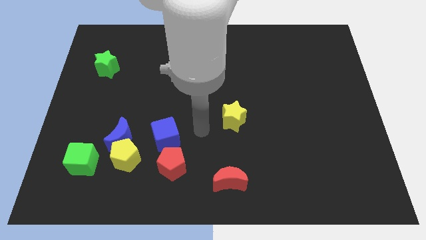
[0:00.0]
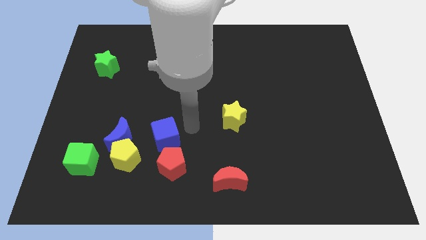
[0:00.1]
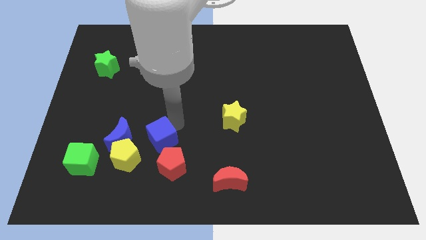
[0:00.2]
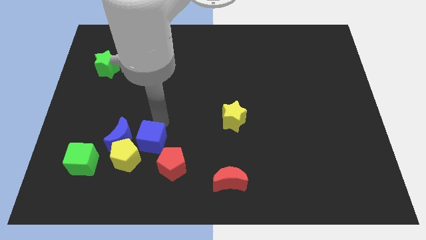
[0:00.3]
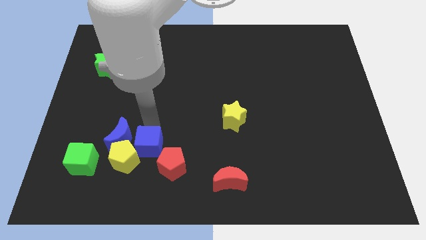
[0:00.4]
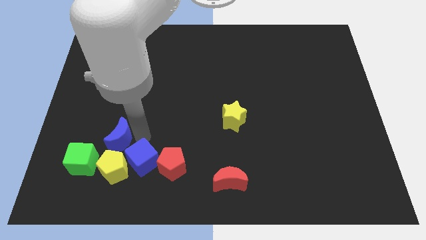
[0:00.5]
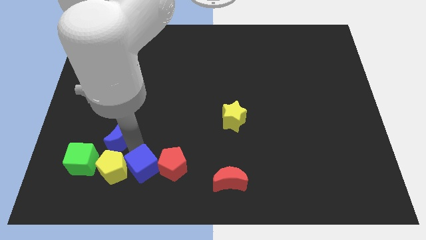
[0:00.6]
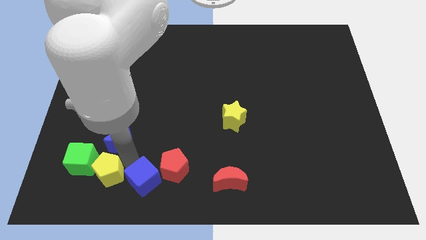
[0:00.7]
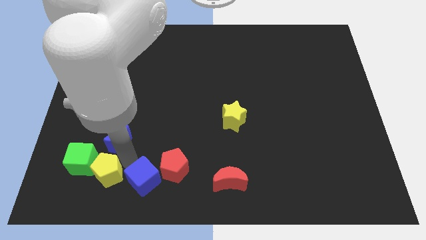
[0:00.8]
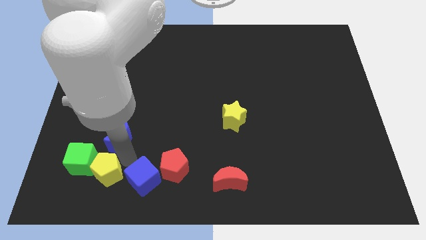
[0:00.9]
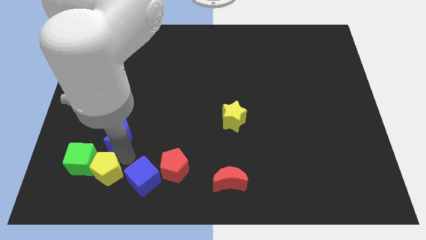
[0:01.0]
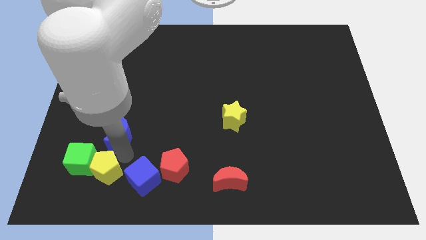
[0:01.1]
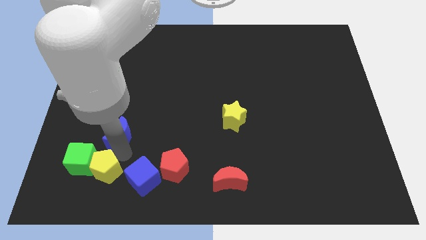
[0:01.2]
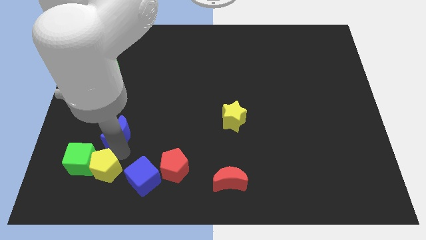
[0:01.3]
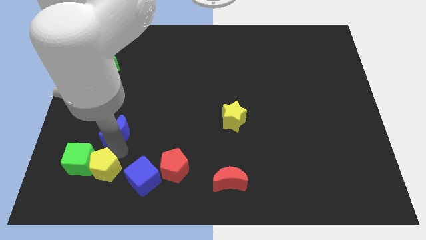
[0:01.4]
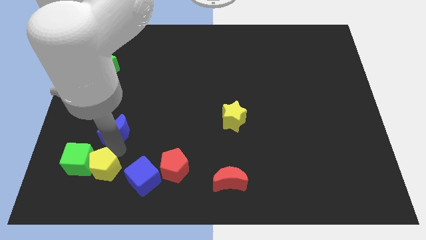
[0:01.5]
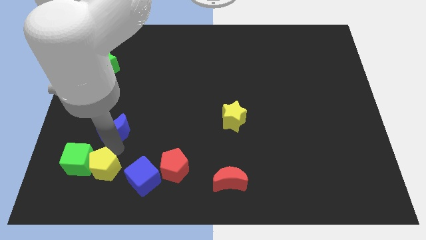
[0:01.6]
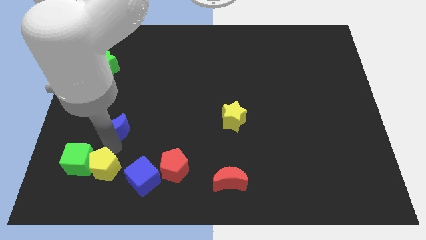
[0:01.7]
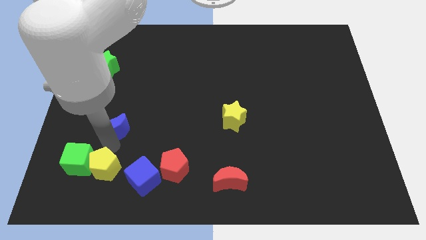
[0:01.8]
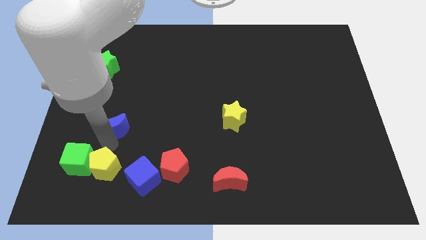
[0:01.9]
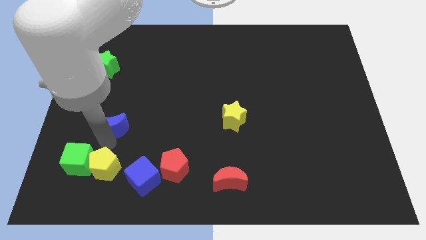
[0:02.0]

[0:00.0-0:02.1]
pull the blue moon apart from the clump

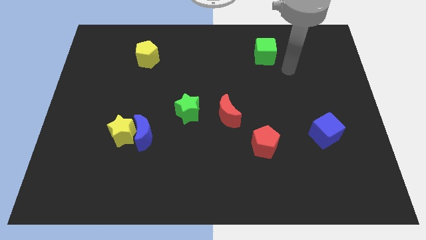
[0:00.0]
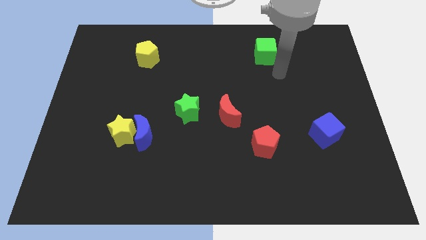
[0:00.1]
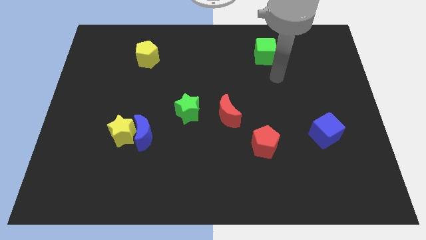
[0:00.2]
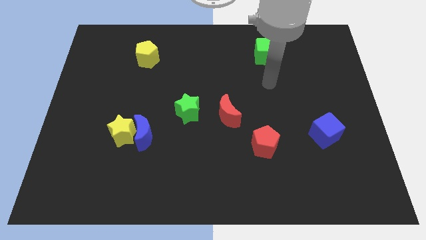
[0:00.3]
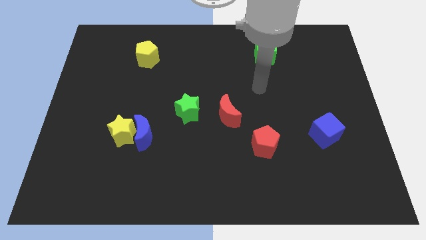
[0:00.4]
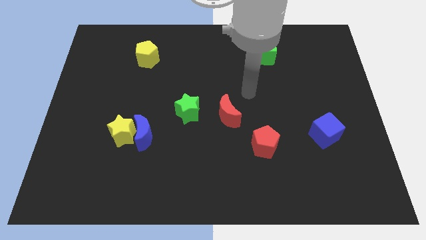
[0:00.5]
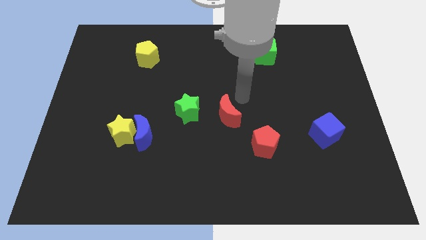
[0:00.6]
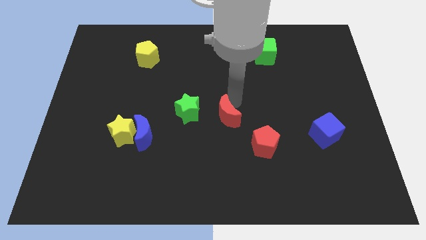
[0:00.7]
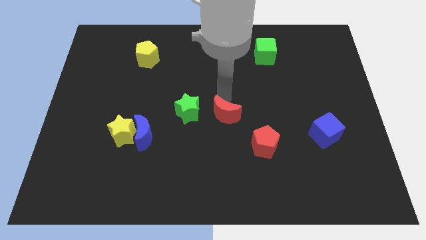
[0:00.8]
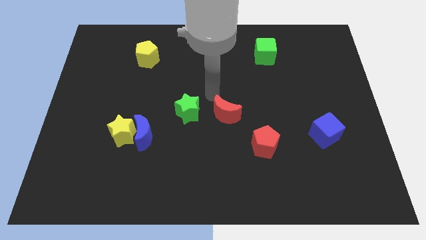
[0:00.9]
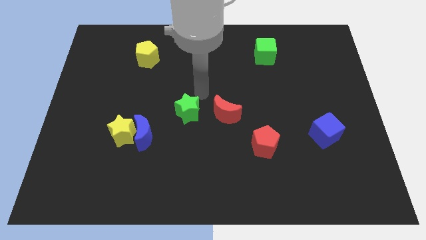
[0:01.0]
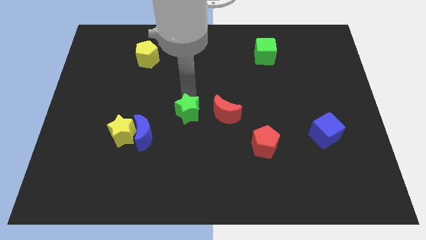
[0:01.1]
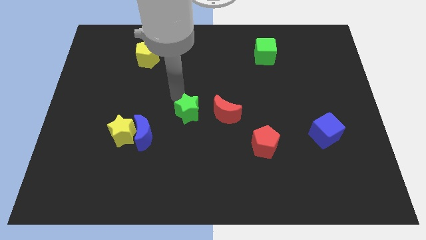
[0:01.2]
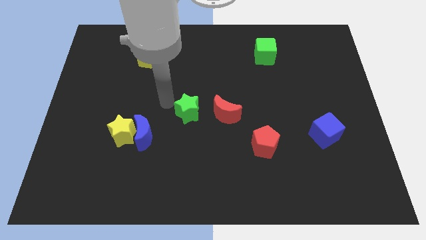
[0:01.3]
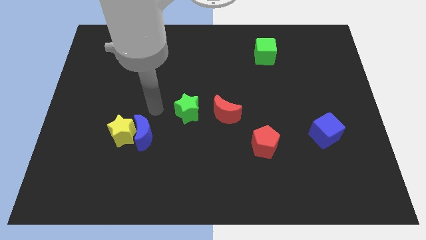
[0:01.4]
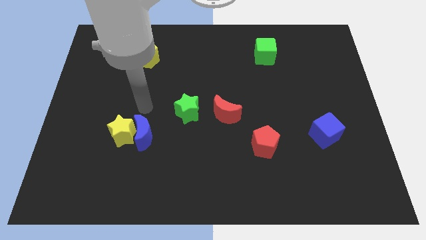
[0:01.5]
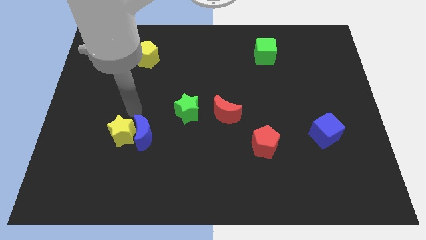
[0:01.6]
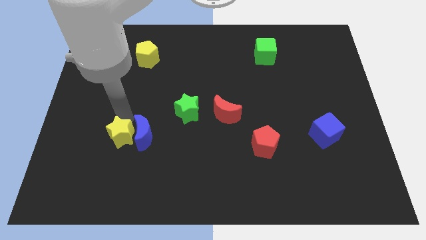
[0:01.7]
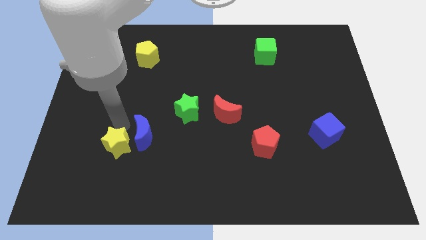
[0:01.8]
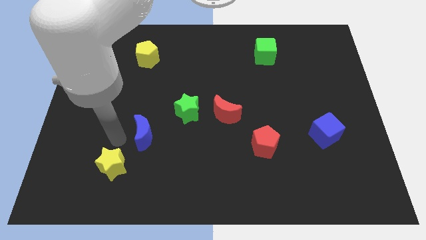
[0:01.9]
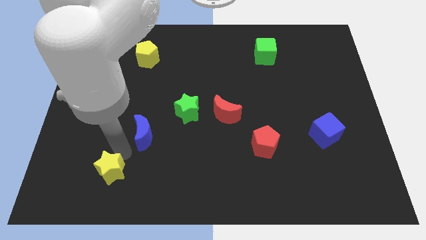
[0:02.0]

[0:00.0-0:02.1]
move the blue moon away from the yellow star

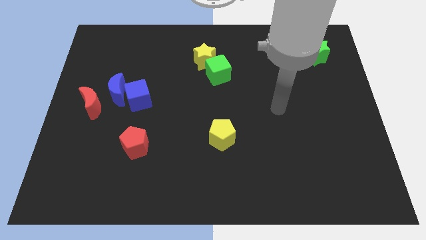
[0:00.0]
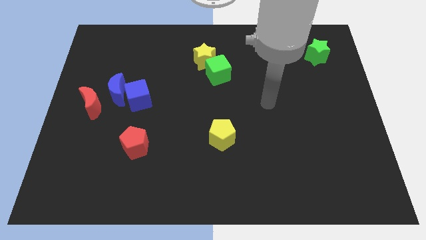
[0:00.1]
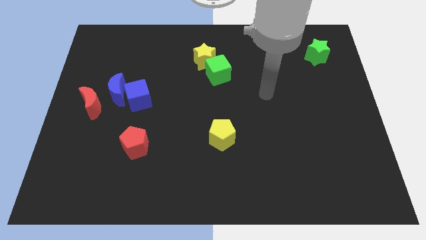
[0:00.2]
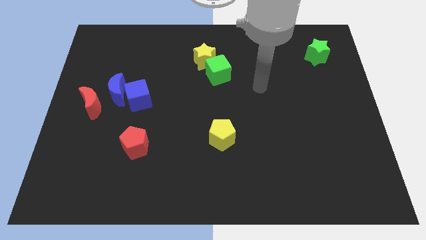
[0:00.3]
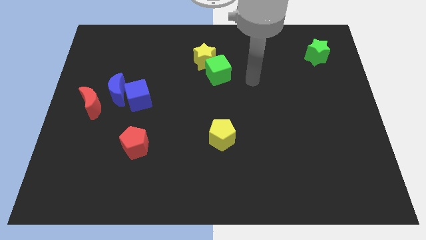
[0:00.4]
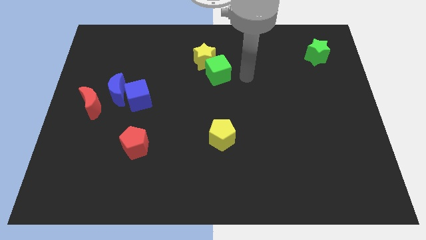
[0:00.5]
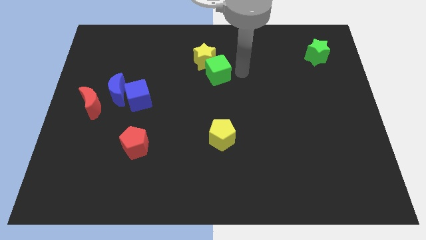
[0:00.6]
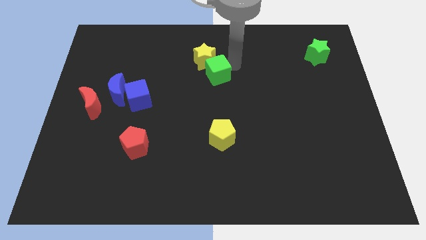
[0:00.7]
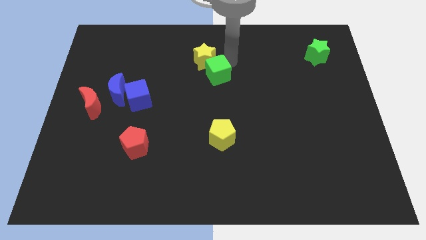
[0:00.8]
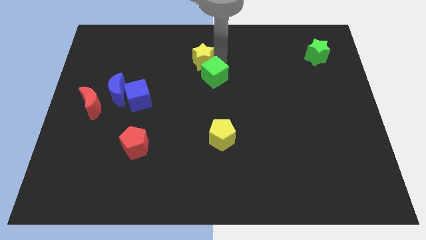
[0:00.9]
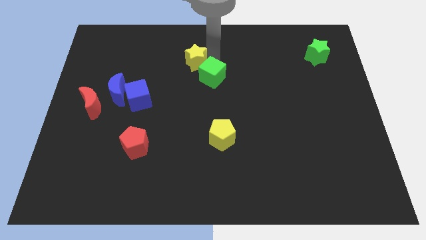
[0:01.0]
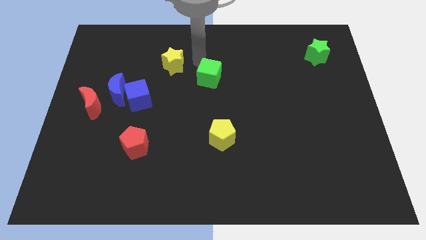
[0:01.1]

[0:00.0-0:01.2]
separate the green cube from the yellow star

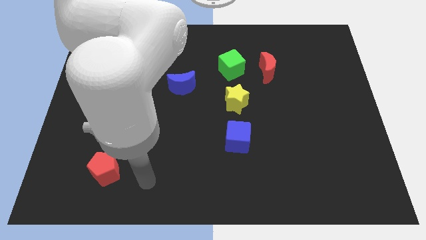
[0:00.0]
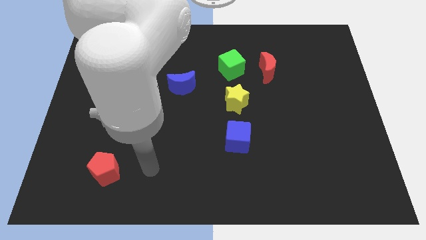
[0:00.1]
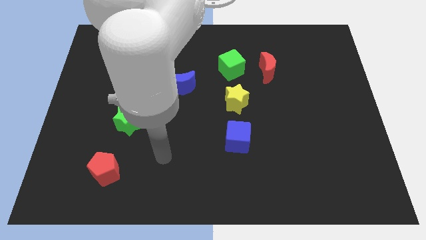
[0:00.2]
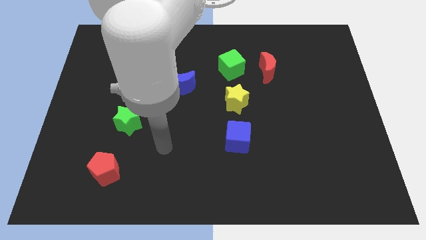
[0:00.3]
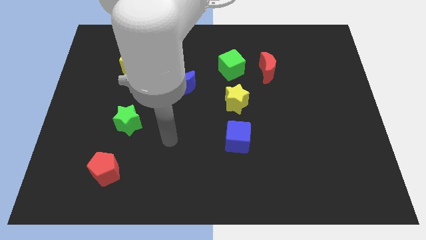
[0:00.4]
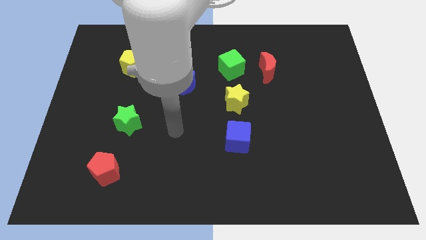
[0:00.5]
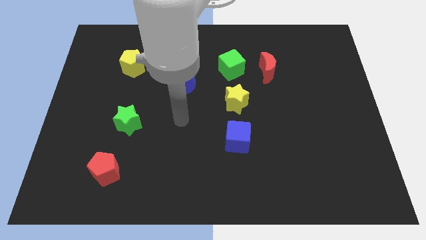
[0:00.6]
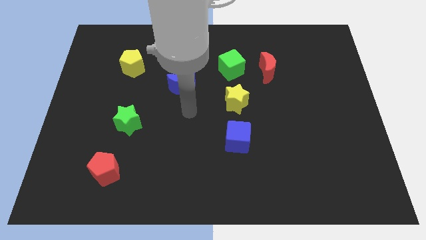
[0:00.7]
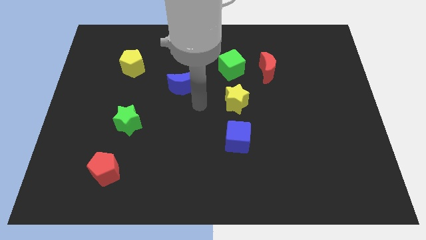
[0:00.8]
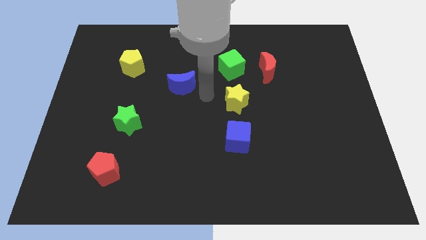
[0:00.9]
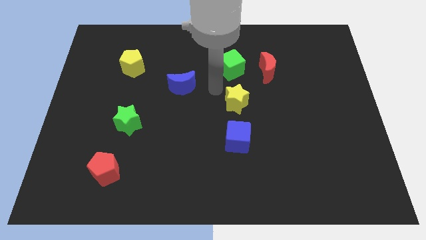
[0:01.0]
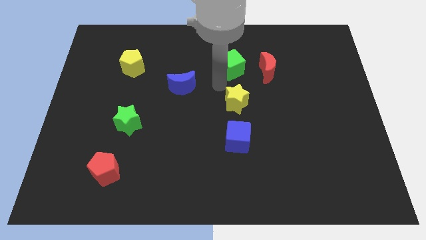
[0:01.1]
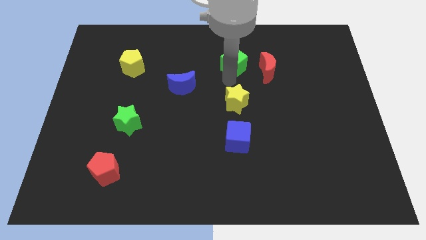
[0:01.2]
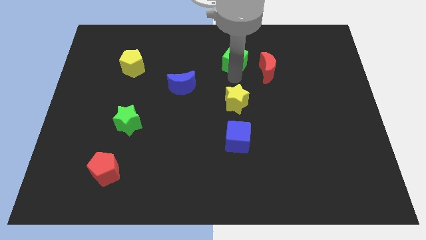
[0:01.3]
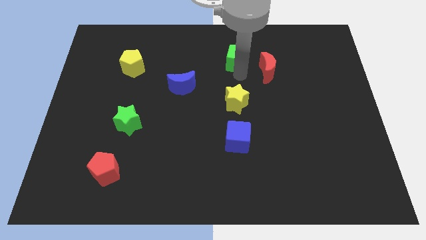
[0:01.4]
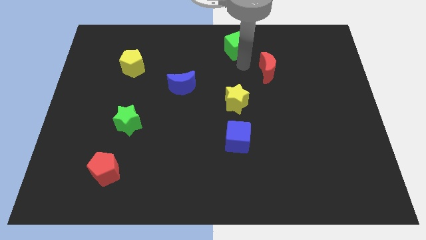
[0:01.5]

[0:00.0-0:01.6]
separate the red moon from the green cube

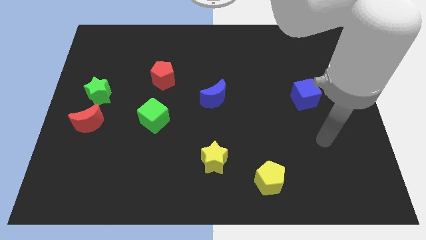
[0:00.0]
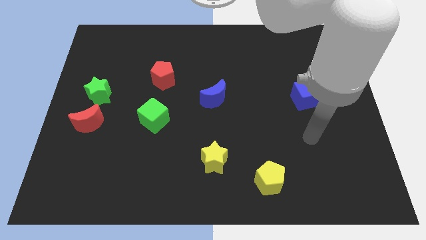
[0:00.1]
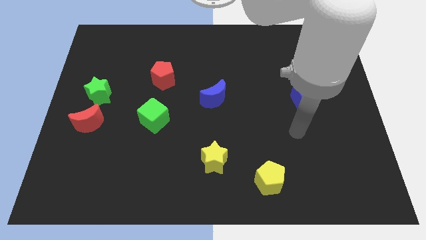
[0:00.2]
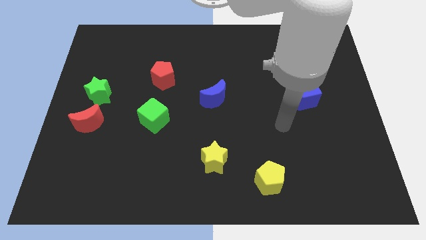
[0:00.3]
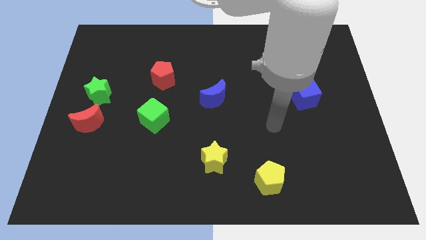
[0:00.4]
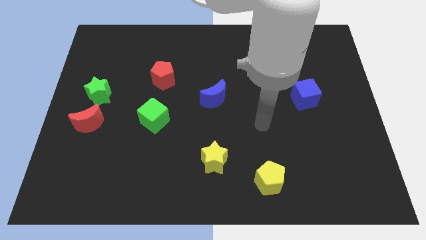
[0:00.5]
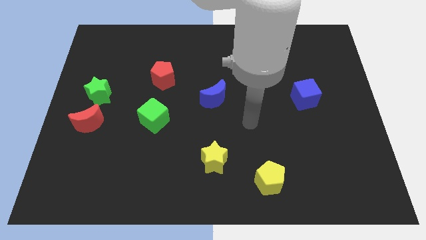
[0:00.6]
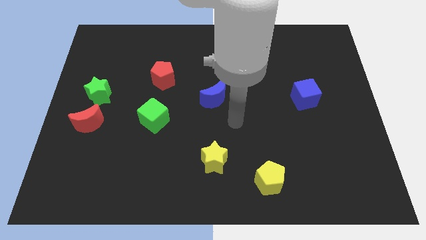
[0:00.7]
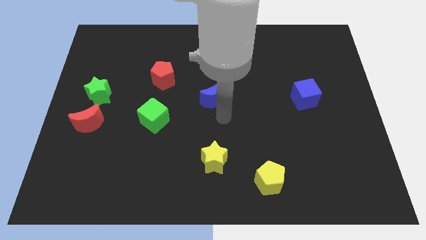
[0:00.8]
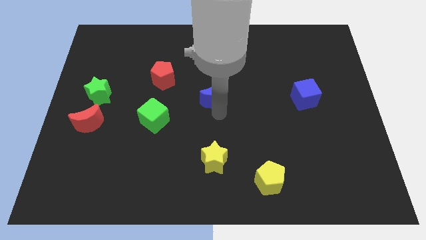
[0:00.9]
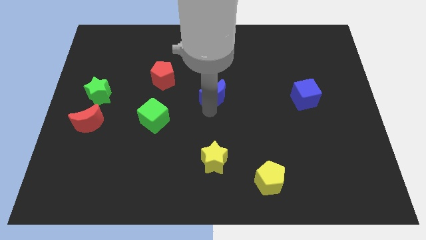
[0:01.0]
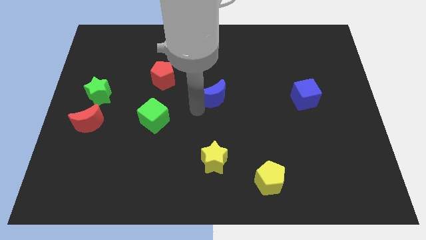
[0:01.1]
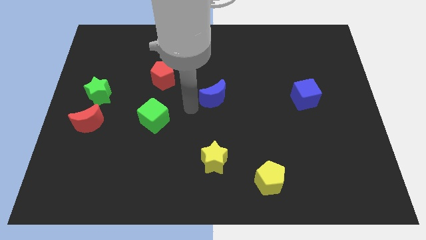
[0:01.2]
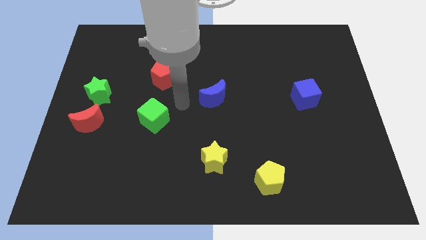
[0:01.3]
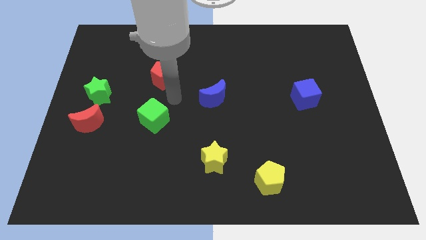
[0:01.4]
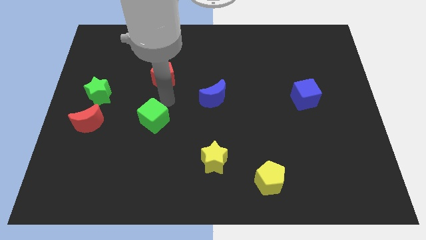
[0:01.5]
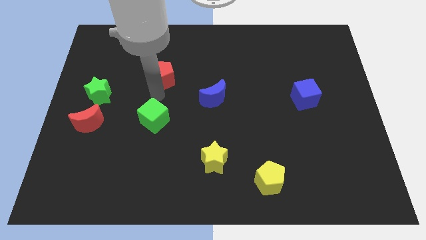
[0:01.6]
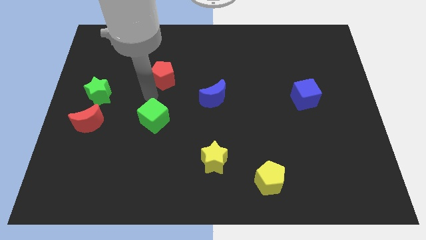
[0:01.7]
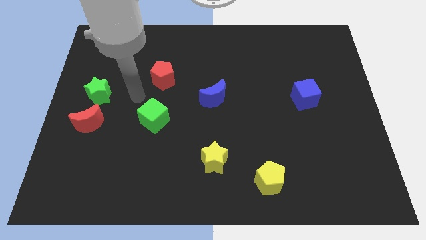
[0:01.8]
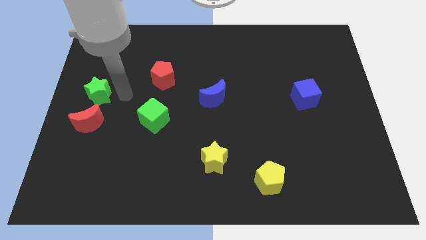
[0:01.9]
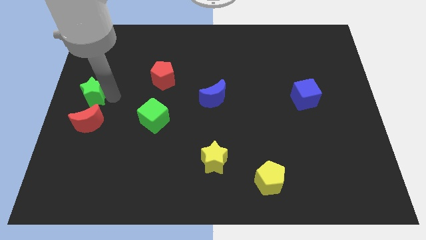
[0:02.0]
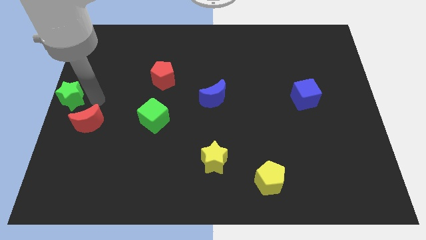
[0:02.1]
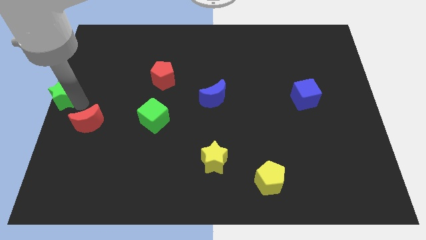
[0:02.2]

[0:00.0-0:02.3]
pull the red moon apart from the green star

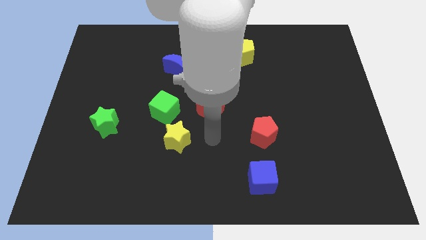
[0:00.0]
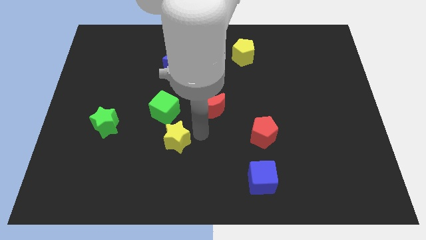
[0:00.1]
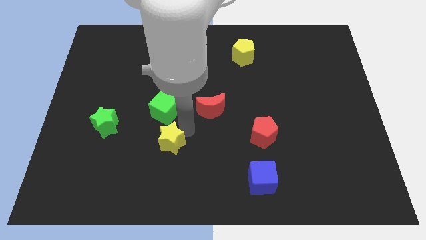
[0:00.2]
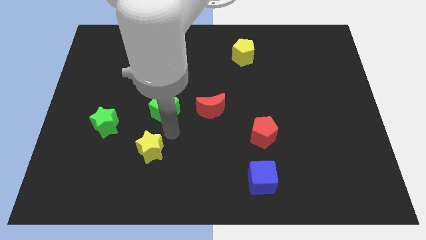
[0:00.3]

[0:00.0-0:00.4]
pull the green cube apart from the yellow star
